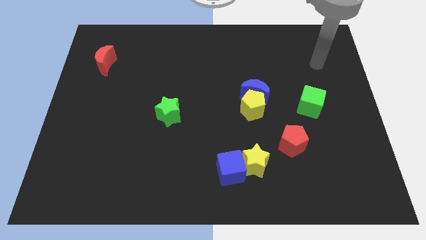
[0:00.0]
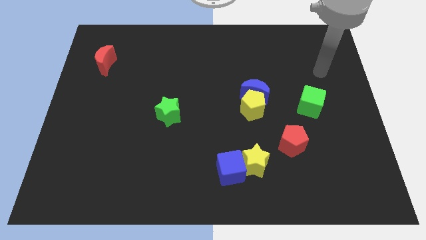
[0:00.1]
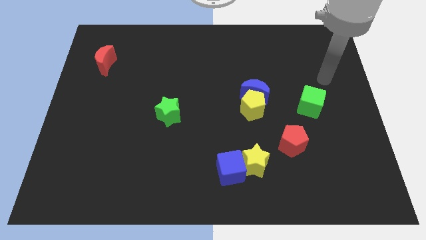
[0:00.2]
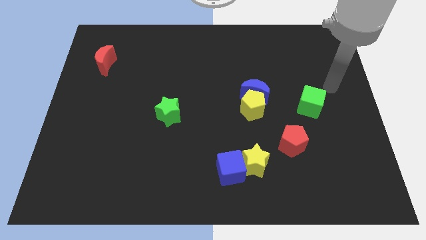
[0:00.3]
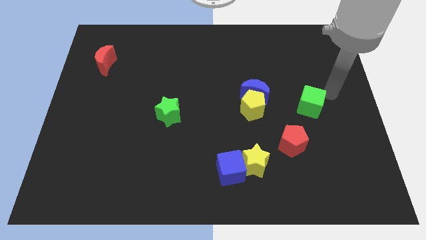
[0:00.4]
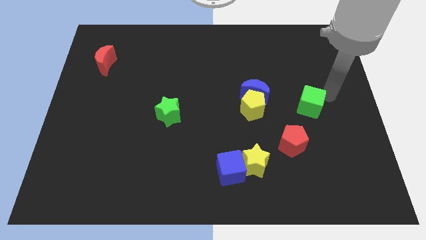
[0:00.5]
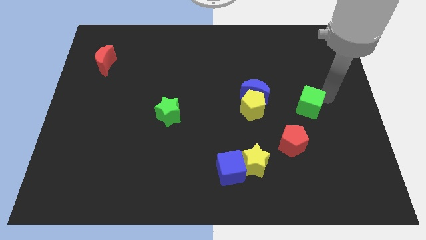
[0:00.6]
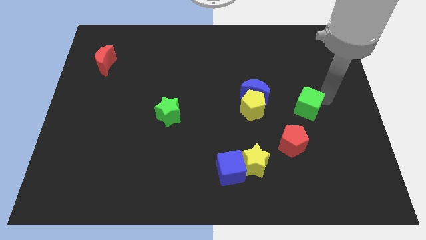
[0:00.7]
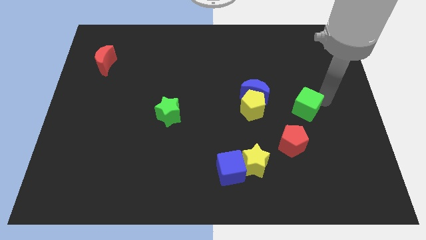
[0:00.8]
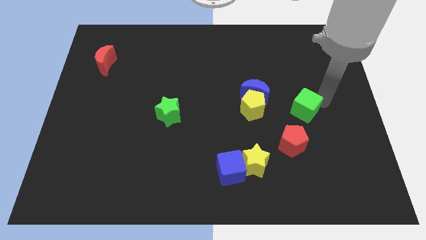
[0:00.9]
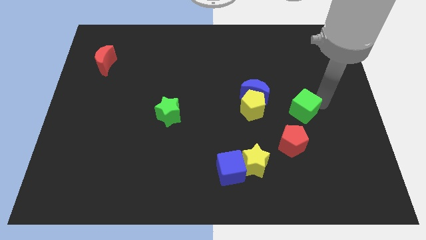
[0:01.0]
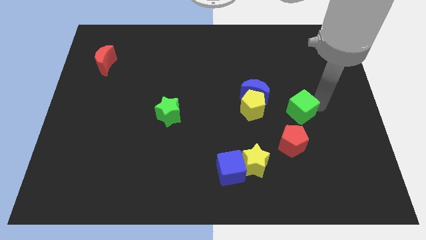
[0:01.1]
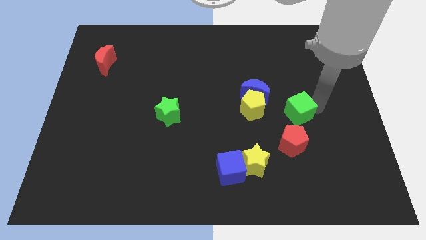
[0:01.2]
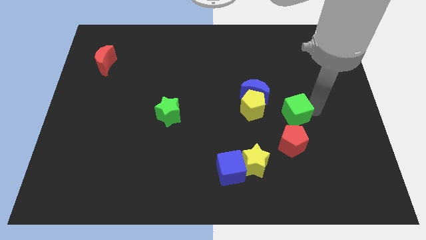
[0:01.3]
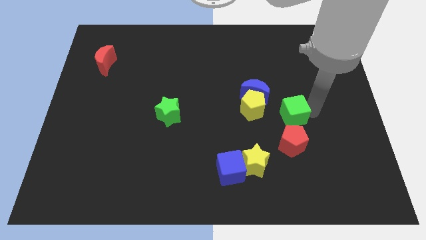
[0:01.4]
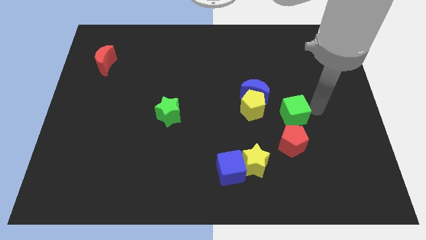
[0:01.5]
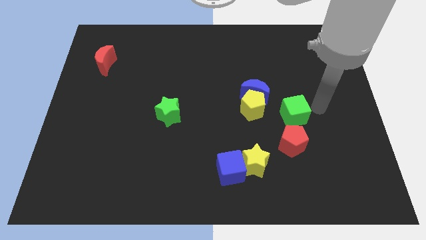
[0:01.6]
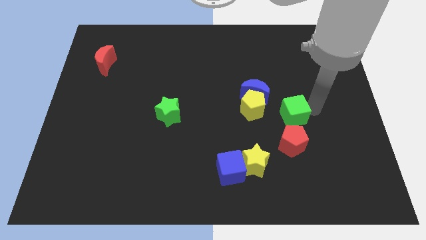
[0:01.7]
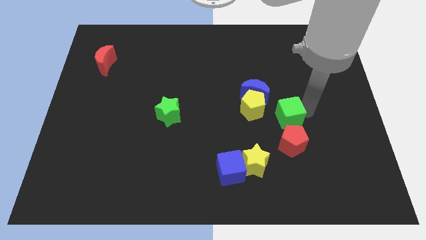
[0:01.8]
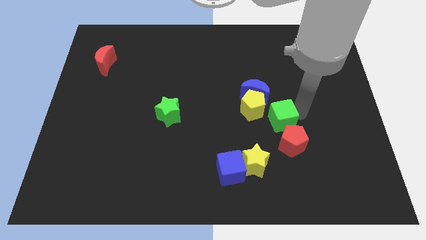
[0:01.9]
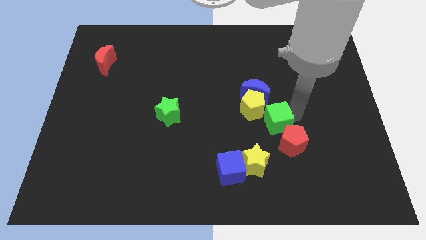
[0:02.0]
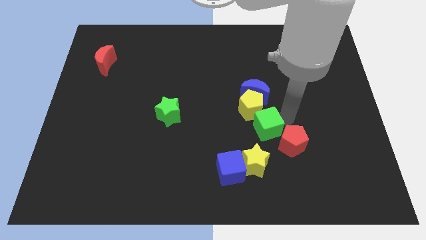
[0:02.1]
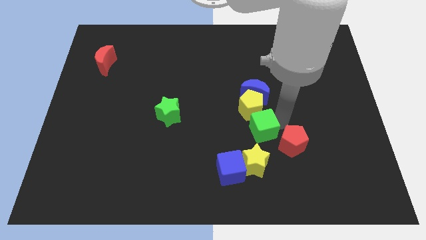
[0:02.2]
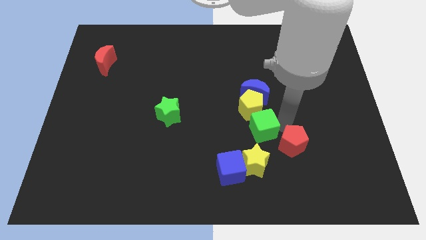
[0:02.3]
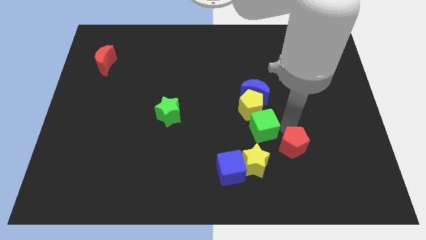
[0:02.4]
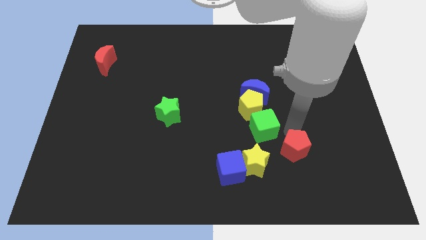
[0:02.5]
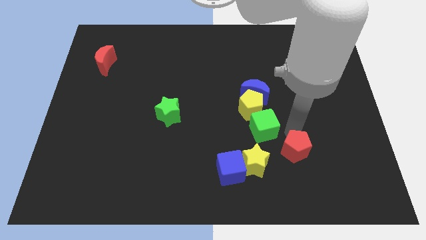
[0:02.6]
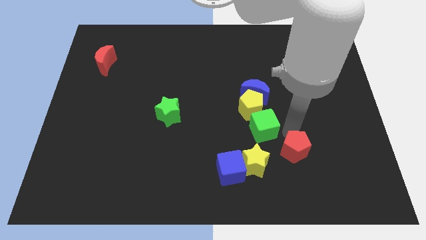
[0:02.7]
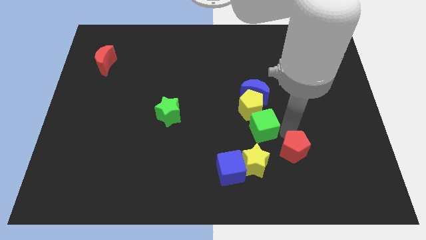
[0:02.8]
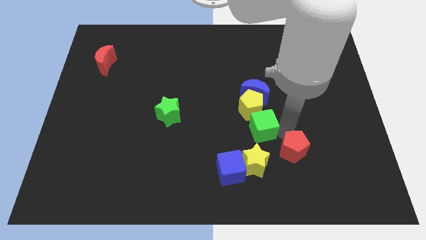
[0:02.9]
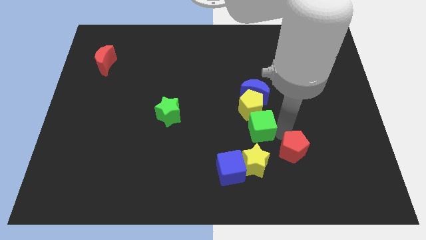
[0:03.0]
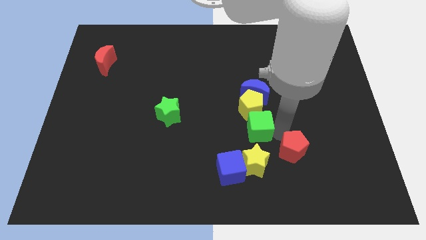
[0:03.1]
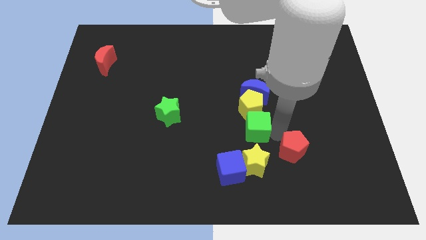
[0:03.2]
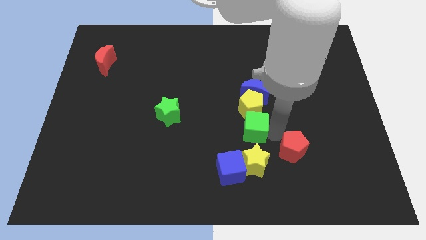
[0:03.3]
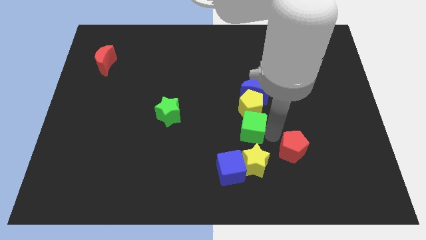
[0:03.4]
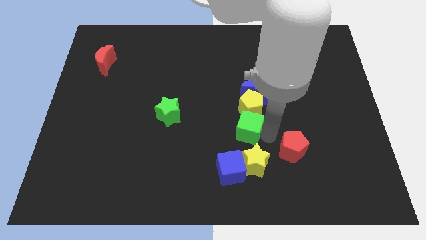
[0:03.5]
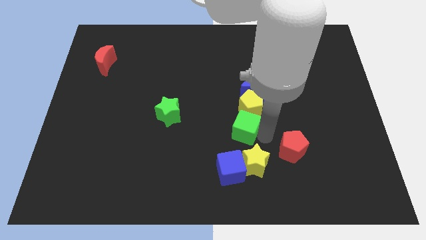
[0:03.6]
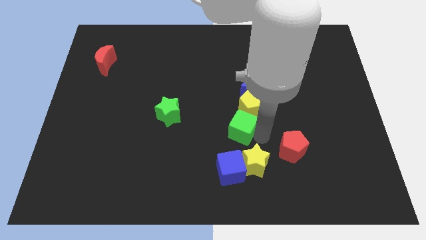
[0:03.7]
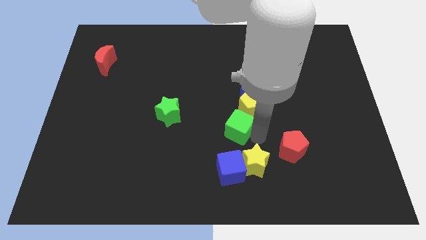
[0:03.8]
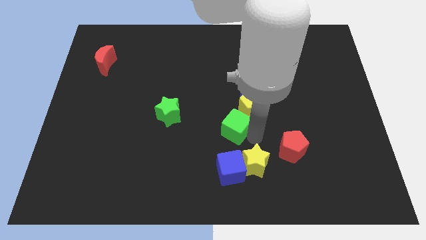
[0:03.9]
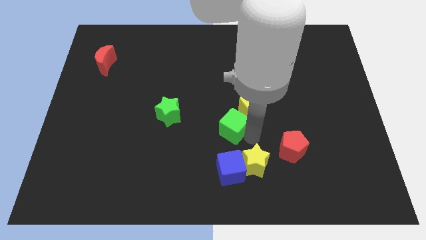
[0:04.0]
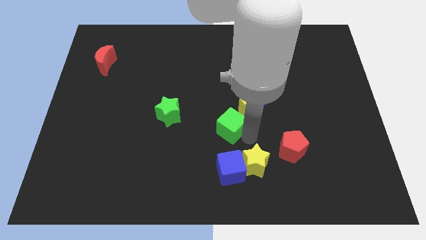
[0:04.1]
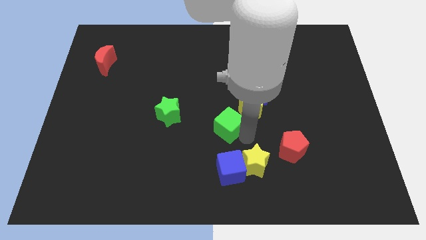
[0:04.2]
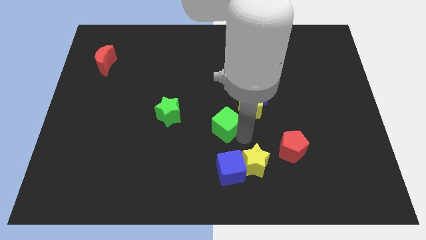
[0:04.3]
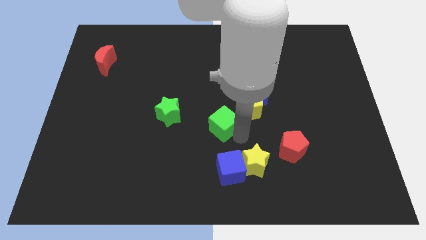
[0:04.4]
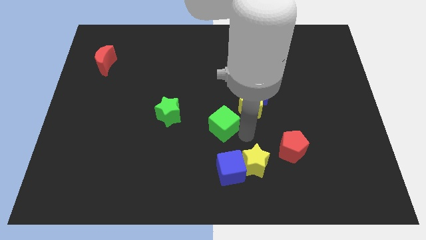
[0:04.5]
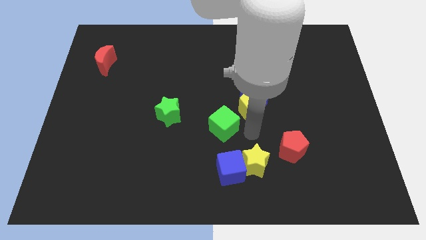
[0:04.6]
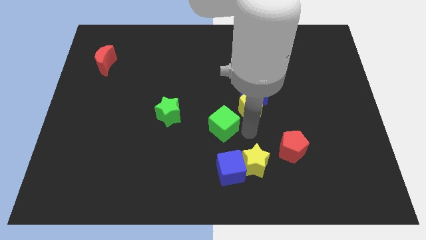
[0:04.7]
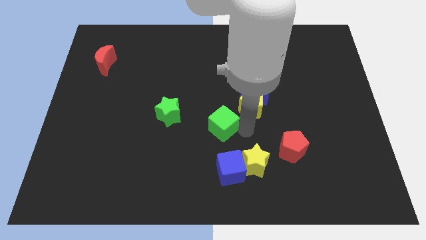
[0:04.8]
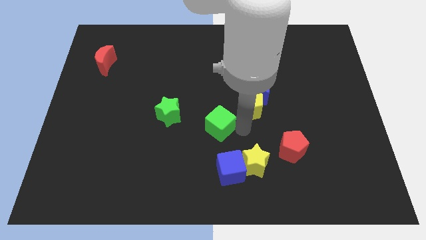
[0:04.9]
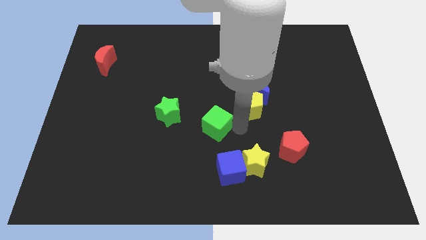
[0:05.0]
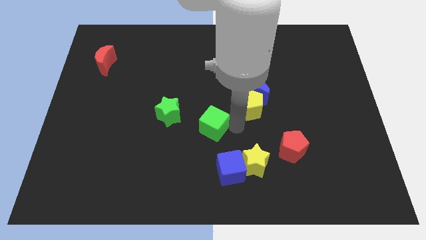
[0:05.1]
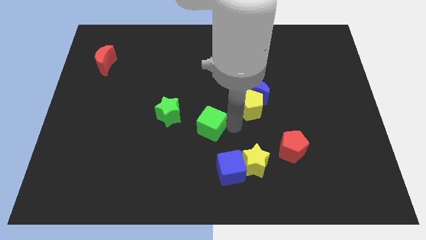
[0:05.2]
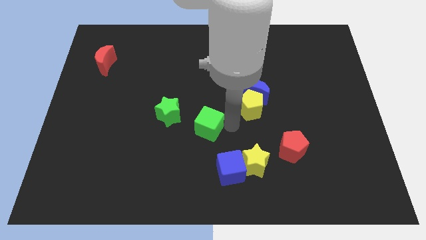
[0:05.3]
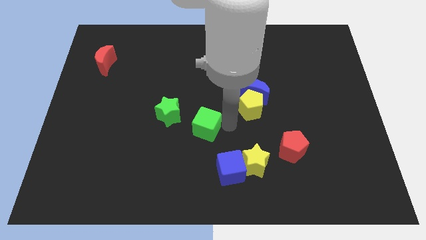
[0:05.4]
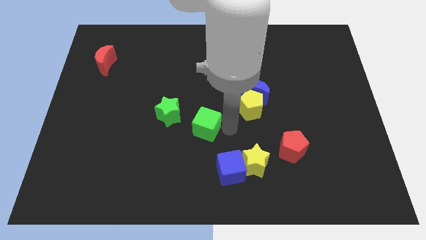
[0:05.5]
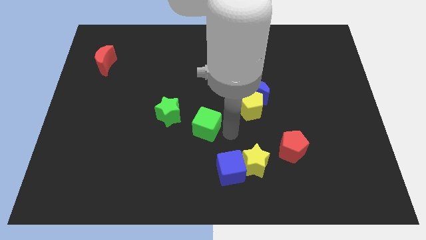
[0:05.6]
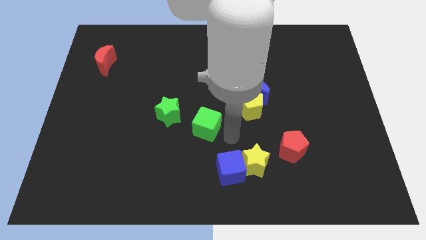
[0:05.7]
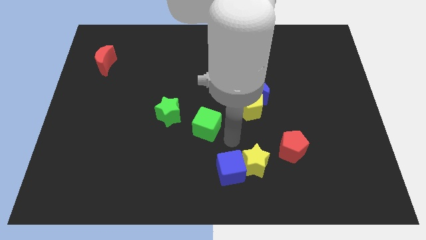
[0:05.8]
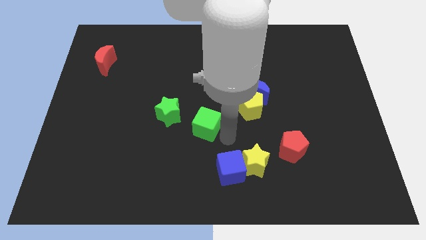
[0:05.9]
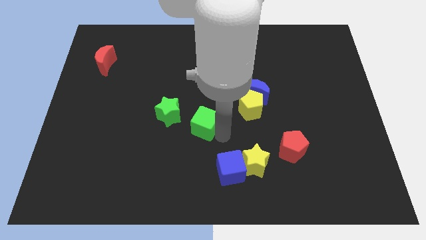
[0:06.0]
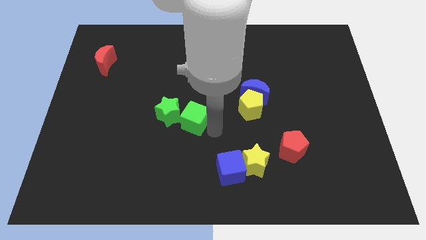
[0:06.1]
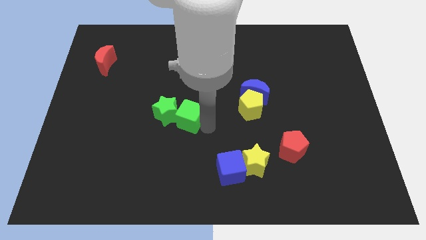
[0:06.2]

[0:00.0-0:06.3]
move the green cube next to the green star

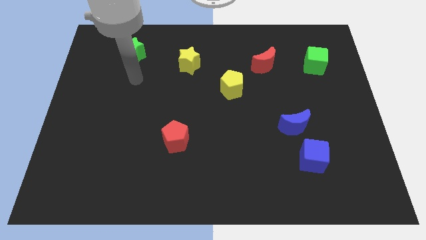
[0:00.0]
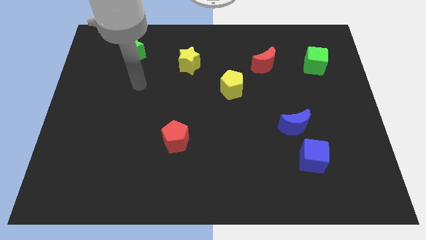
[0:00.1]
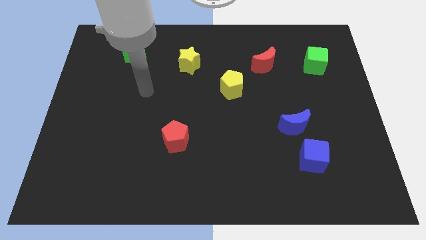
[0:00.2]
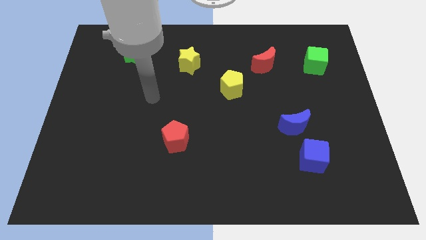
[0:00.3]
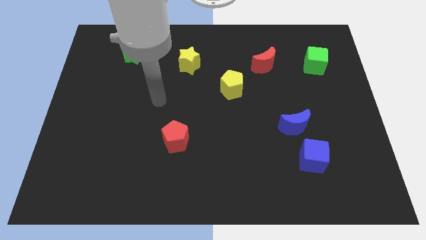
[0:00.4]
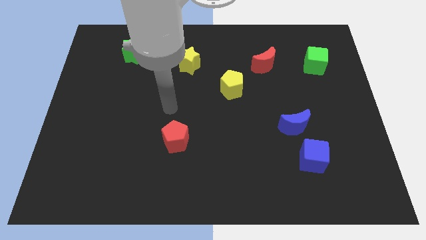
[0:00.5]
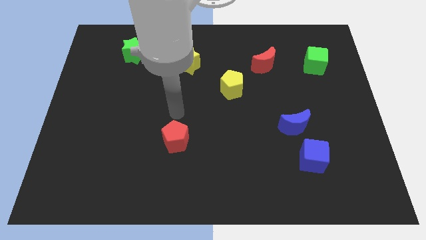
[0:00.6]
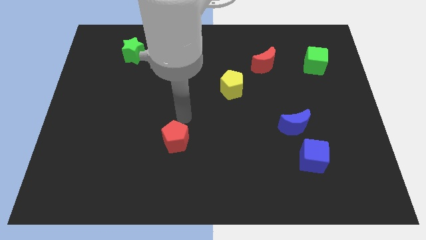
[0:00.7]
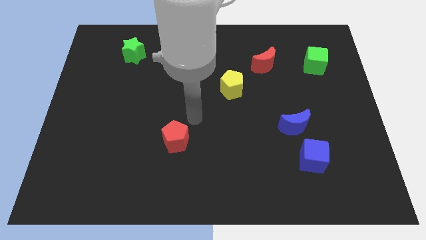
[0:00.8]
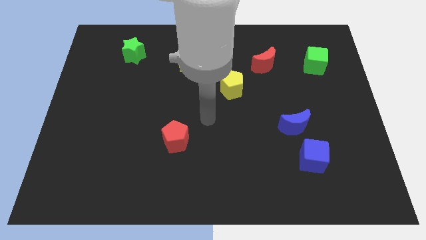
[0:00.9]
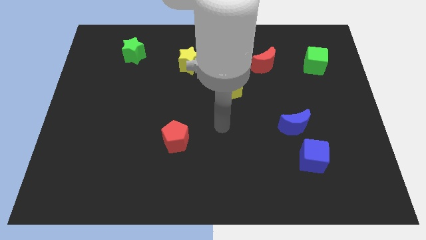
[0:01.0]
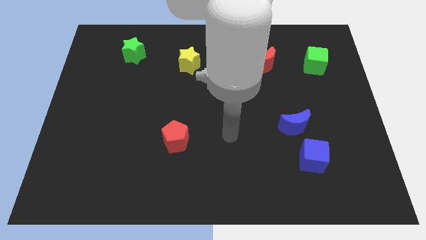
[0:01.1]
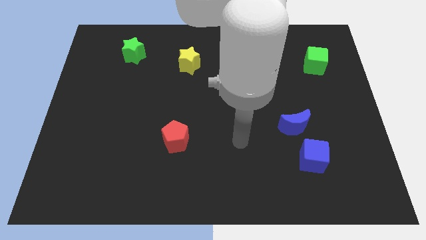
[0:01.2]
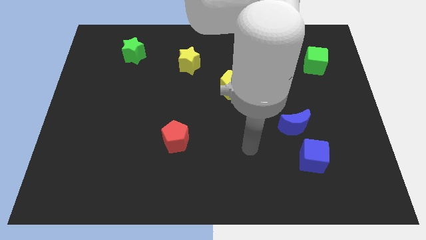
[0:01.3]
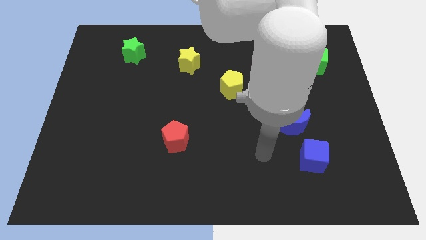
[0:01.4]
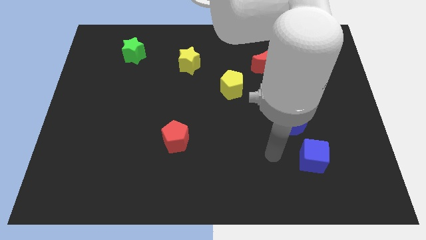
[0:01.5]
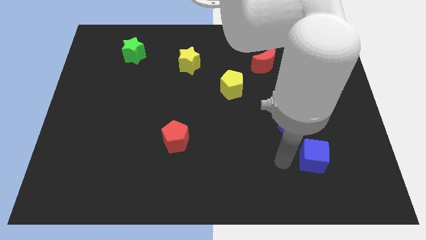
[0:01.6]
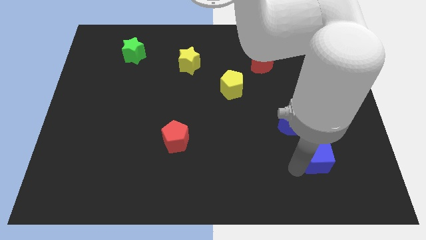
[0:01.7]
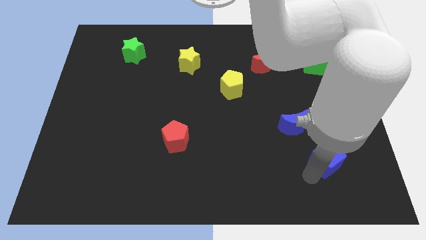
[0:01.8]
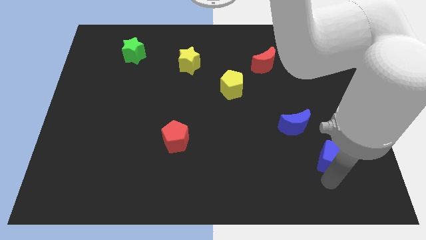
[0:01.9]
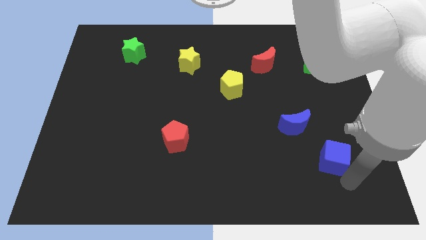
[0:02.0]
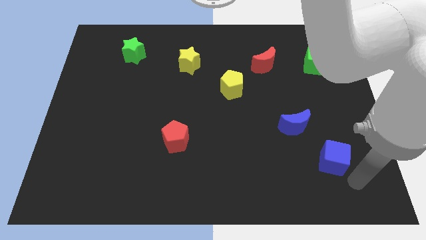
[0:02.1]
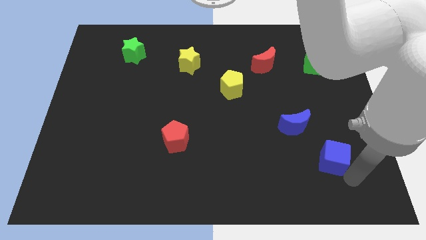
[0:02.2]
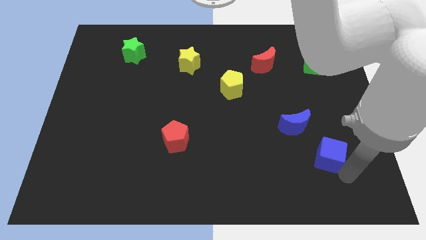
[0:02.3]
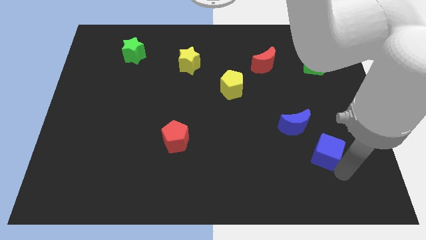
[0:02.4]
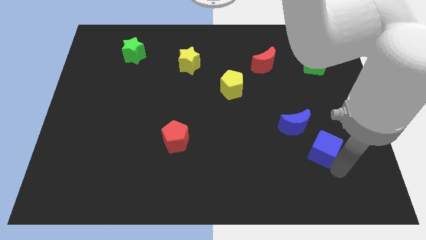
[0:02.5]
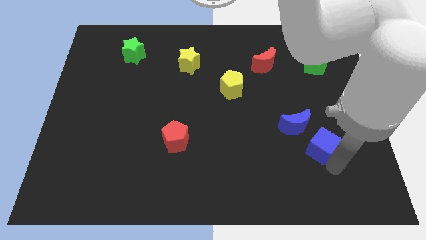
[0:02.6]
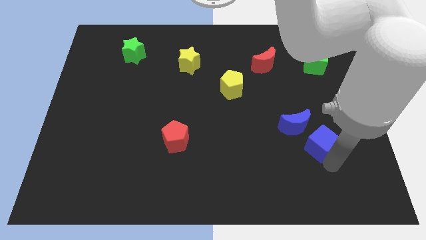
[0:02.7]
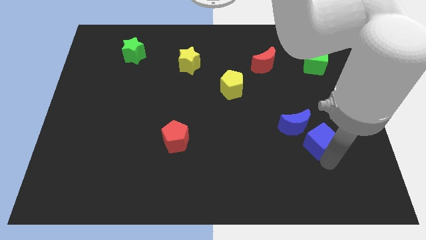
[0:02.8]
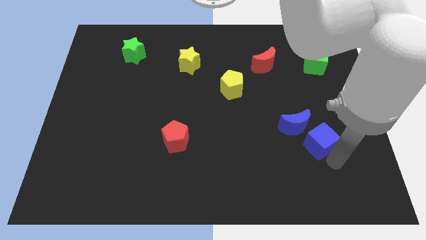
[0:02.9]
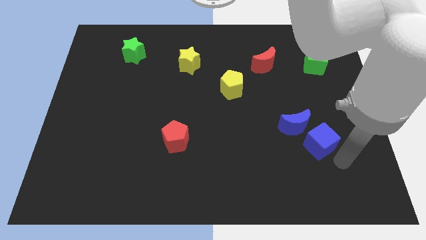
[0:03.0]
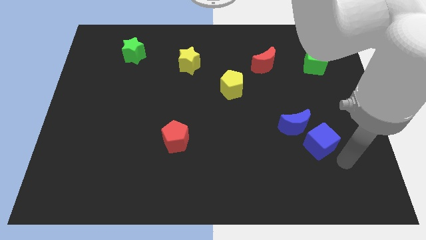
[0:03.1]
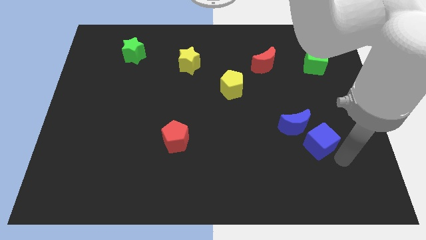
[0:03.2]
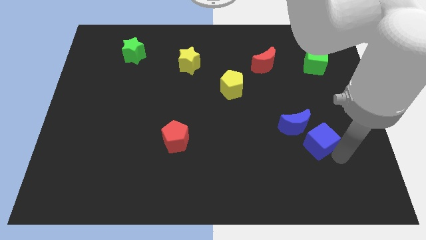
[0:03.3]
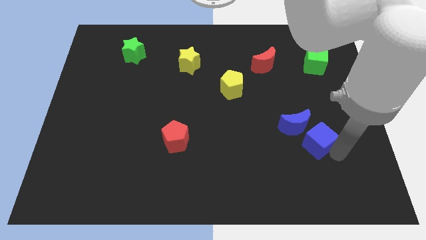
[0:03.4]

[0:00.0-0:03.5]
put the blue cube towards the blue moon
